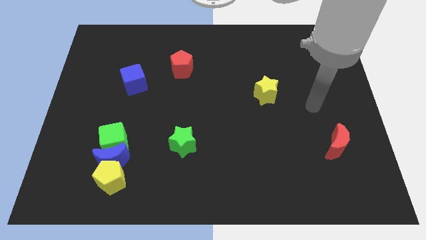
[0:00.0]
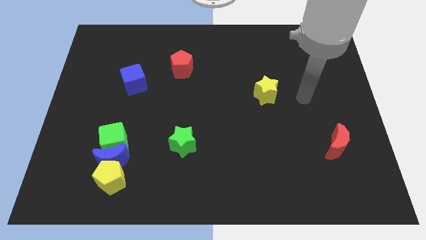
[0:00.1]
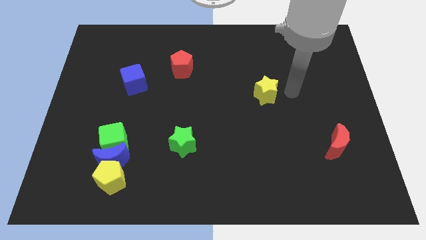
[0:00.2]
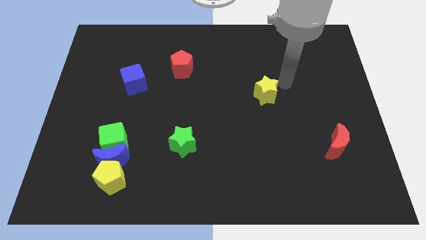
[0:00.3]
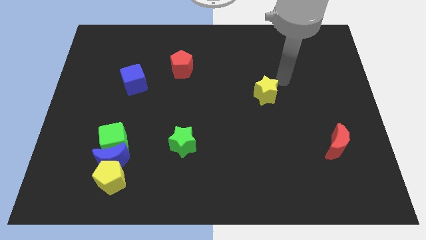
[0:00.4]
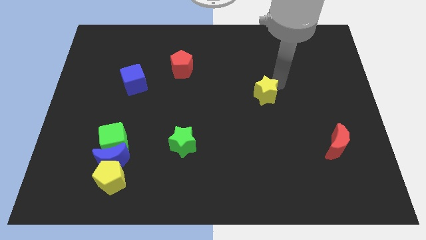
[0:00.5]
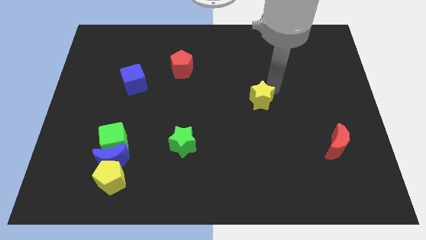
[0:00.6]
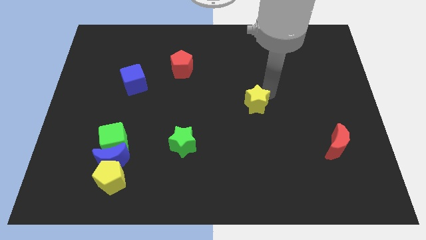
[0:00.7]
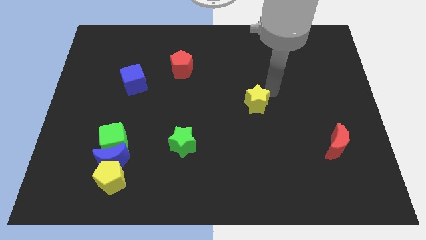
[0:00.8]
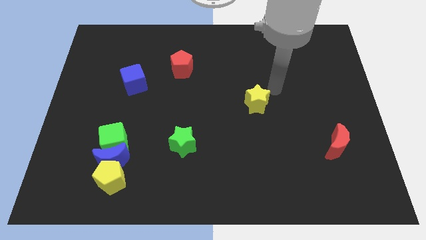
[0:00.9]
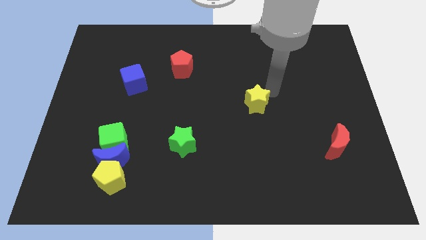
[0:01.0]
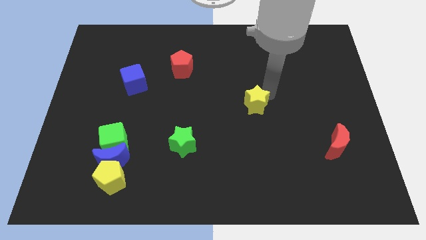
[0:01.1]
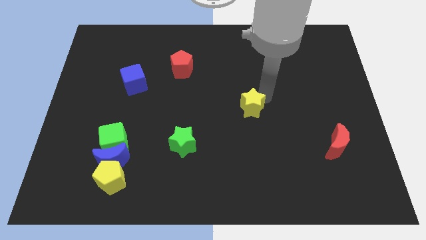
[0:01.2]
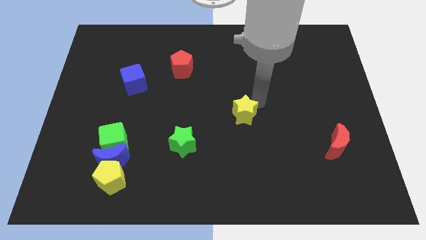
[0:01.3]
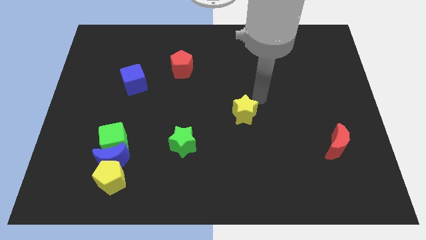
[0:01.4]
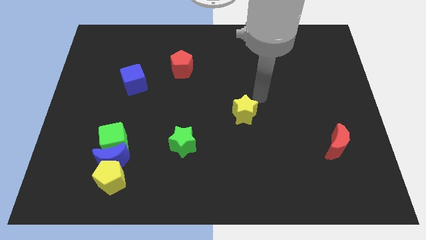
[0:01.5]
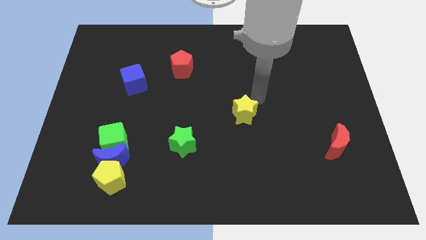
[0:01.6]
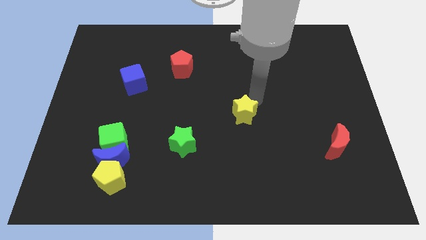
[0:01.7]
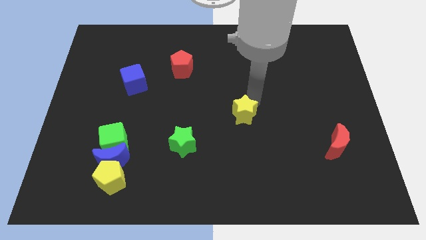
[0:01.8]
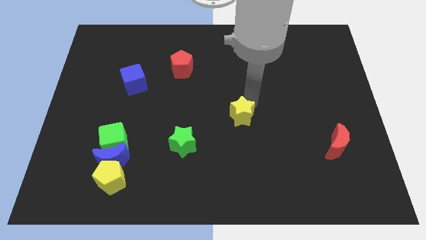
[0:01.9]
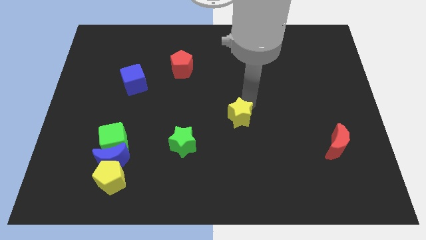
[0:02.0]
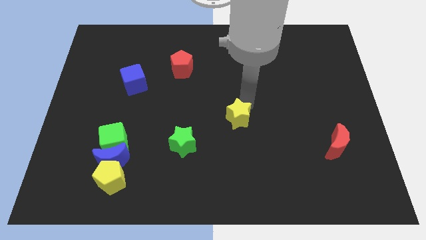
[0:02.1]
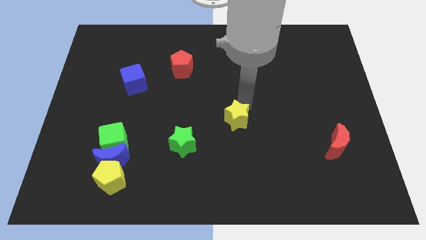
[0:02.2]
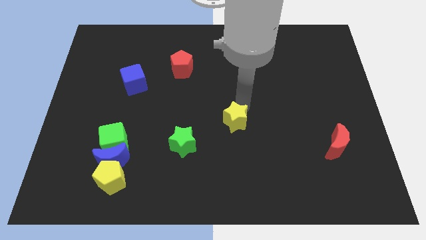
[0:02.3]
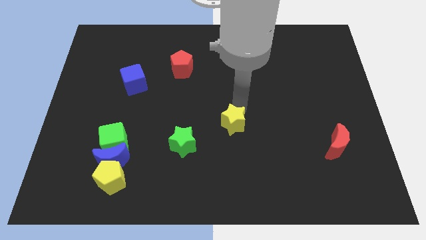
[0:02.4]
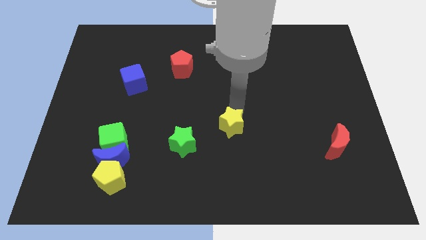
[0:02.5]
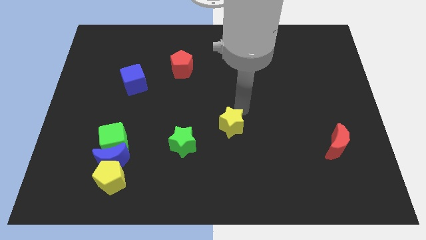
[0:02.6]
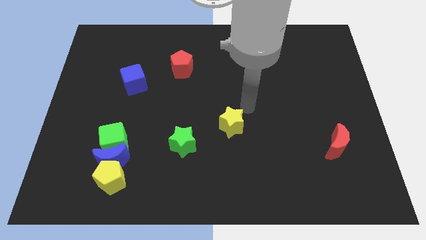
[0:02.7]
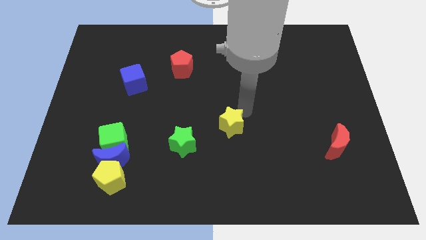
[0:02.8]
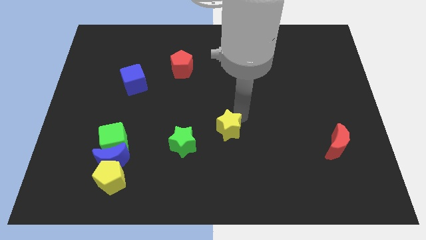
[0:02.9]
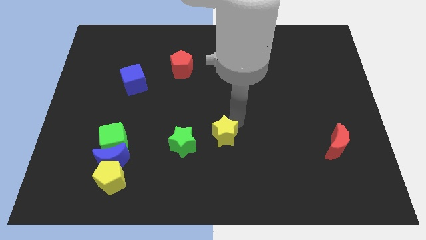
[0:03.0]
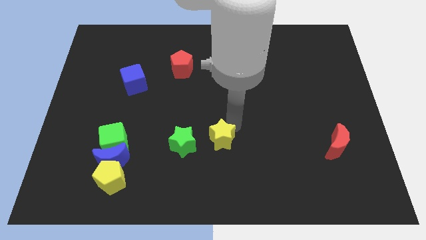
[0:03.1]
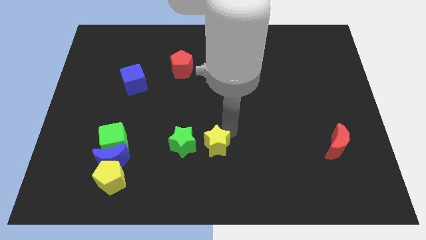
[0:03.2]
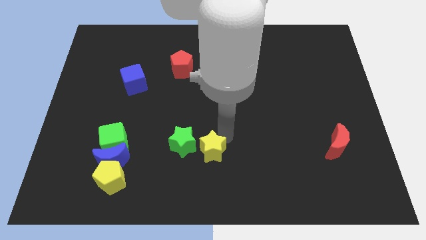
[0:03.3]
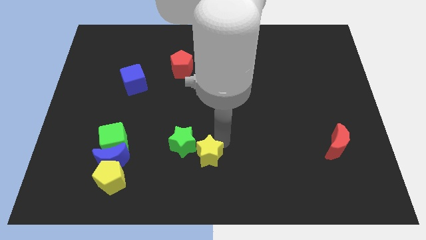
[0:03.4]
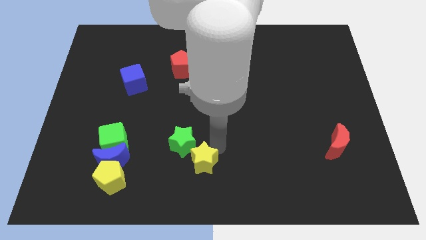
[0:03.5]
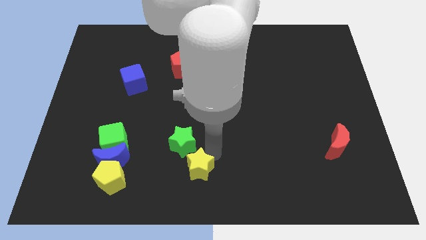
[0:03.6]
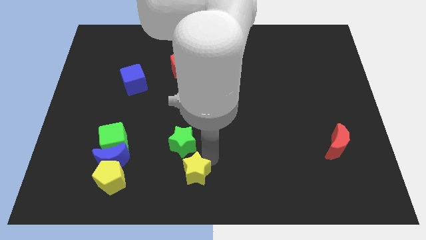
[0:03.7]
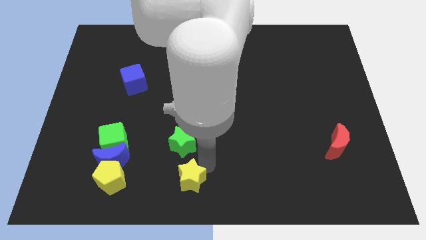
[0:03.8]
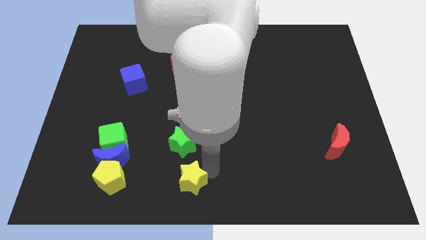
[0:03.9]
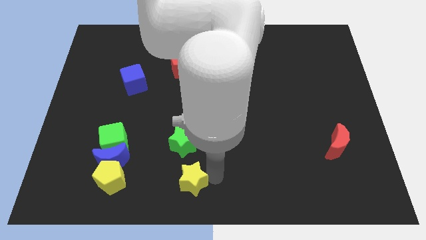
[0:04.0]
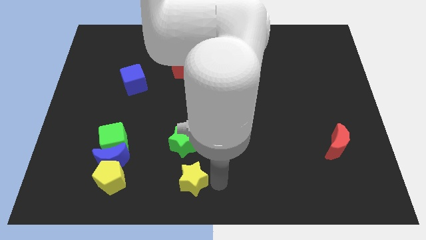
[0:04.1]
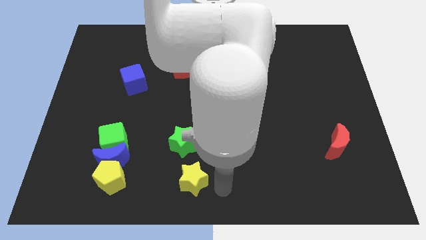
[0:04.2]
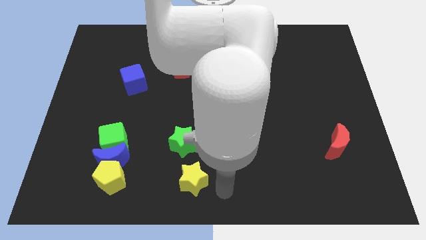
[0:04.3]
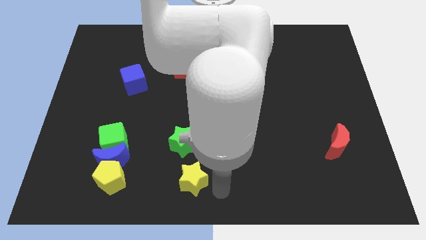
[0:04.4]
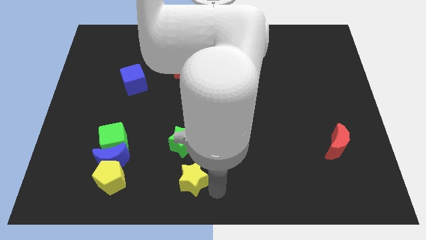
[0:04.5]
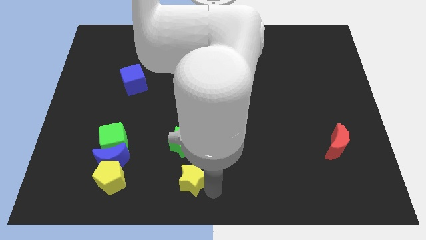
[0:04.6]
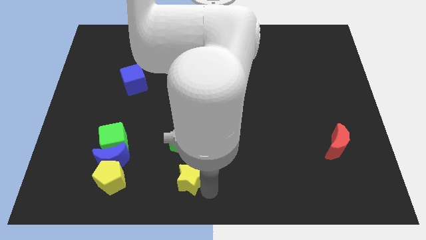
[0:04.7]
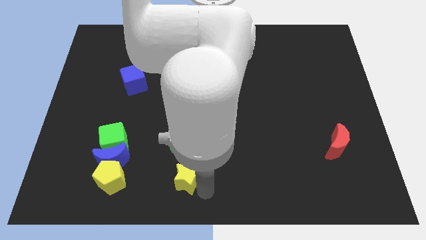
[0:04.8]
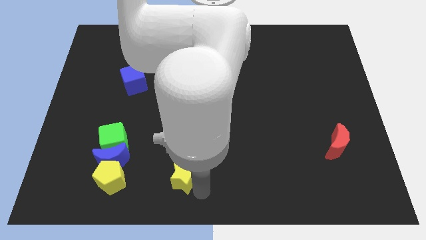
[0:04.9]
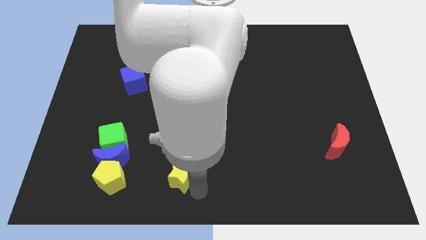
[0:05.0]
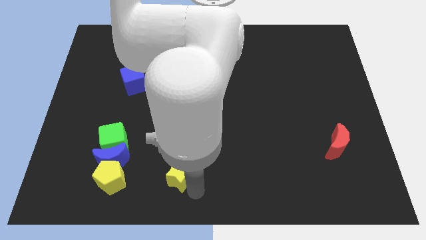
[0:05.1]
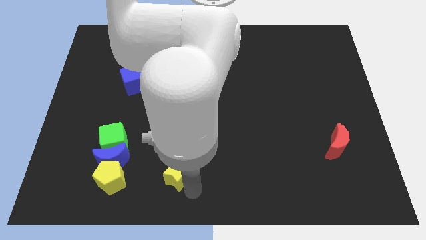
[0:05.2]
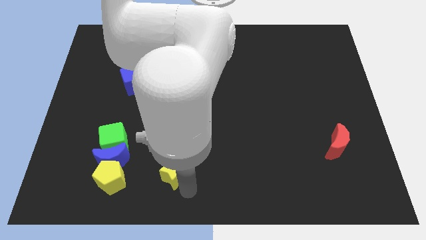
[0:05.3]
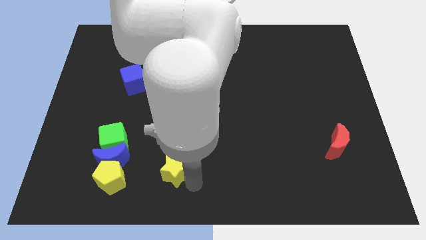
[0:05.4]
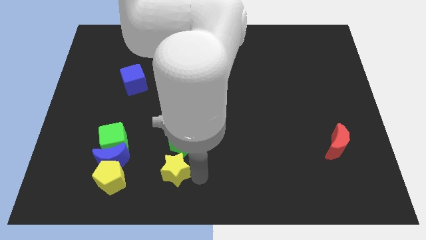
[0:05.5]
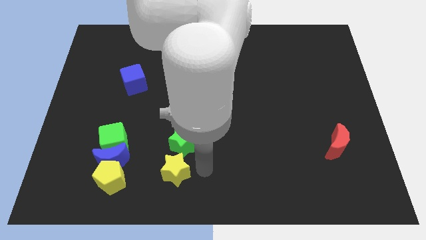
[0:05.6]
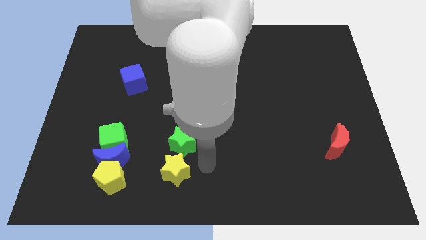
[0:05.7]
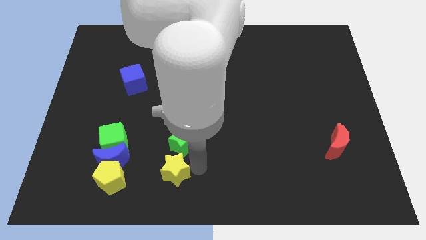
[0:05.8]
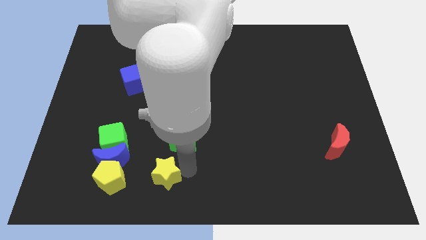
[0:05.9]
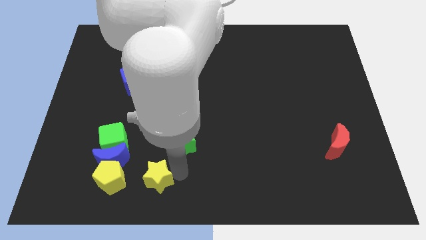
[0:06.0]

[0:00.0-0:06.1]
put the yellow star to the bottom right of the blue moon

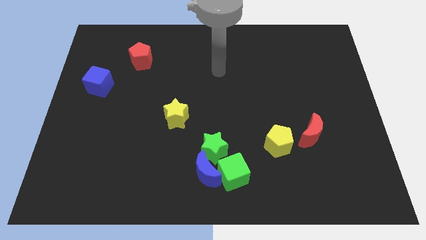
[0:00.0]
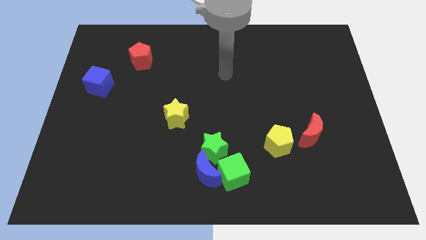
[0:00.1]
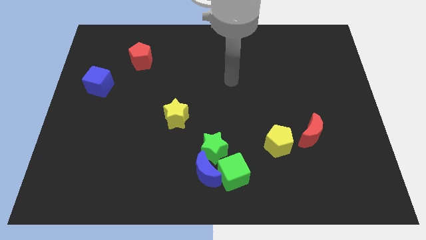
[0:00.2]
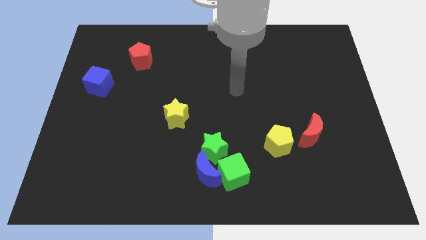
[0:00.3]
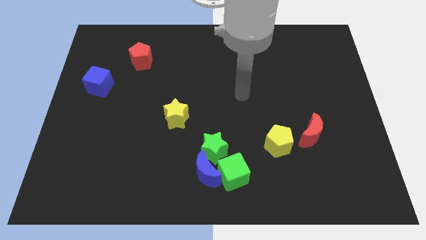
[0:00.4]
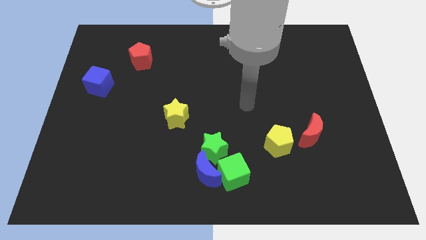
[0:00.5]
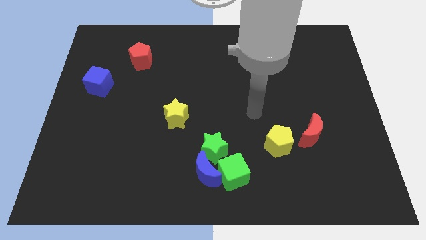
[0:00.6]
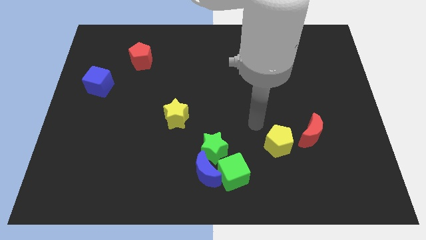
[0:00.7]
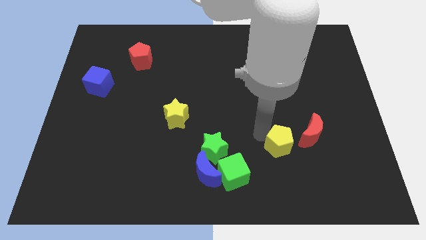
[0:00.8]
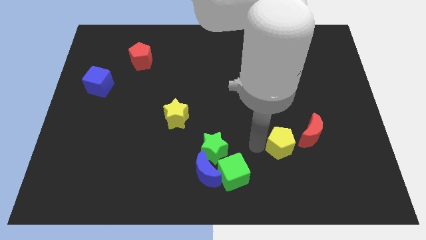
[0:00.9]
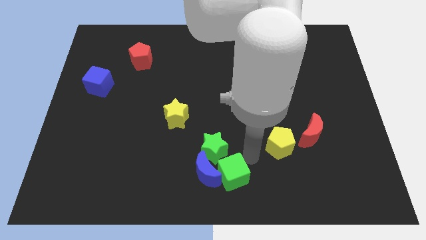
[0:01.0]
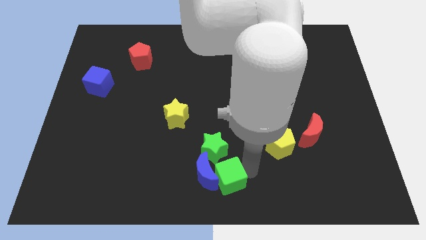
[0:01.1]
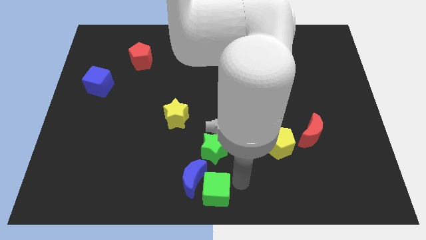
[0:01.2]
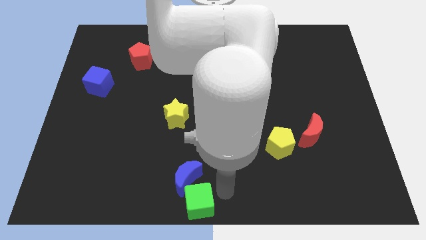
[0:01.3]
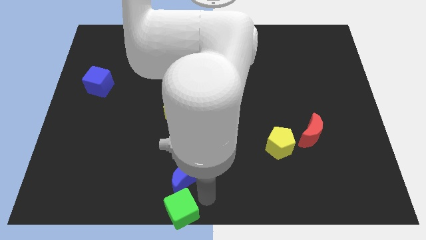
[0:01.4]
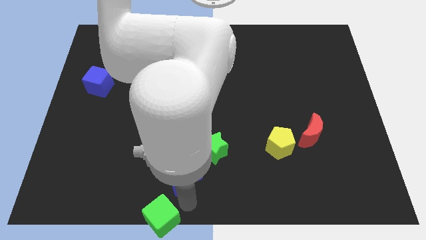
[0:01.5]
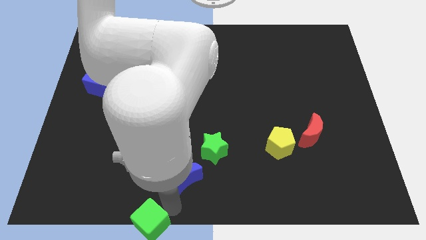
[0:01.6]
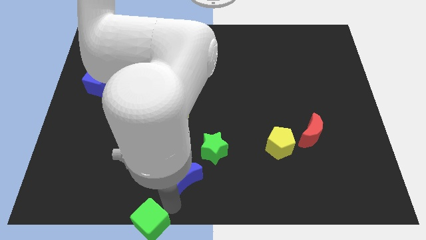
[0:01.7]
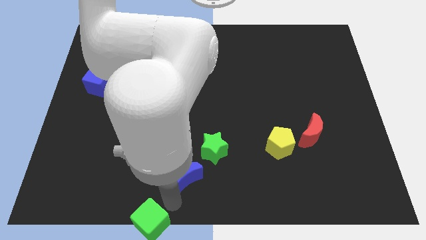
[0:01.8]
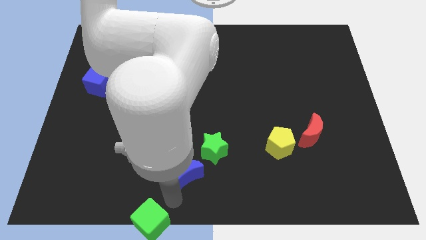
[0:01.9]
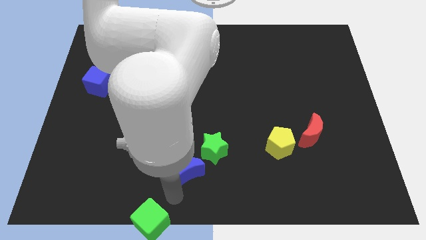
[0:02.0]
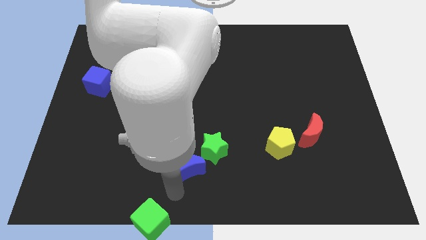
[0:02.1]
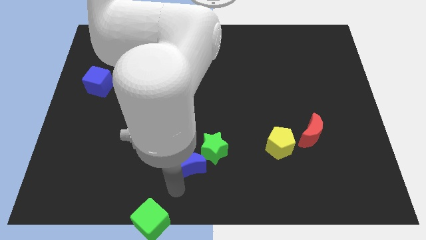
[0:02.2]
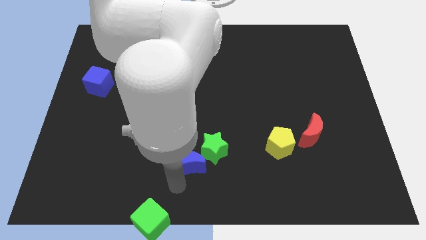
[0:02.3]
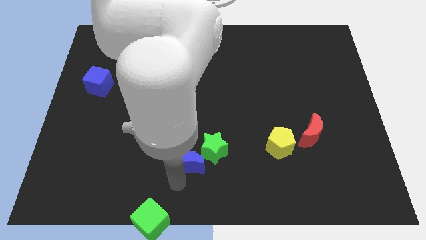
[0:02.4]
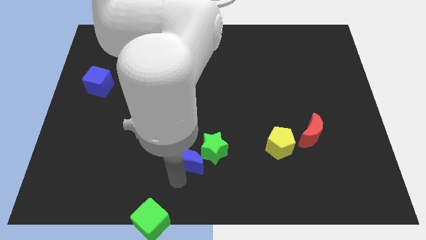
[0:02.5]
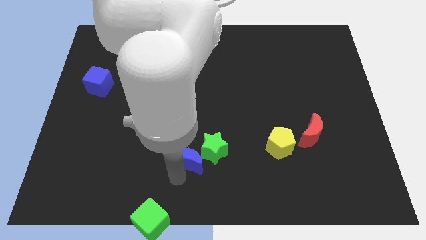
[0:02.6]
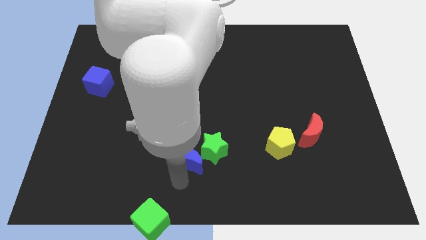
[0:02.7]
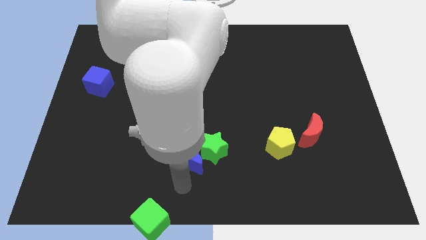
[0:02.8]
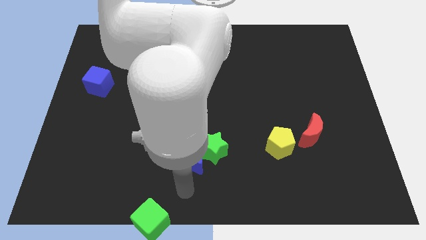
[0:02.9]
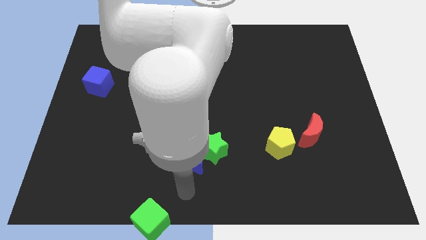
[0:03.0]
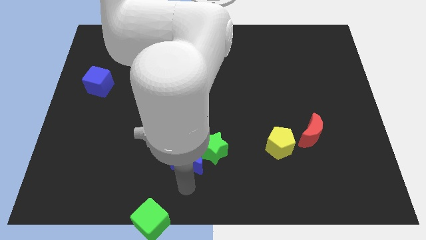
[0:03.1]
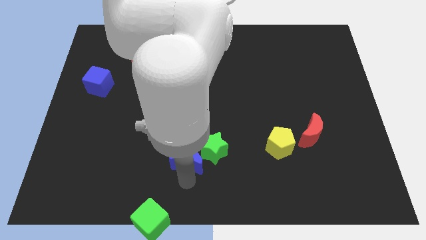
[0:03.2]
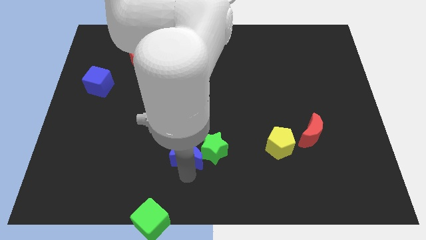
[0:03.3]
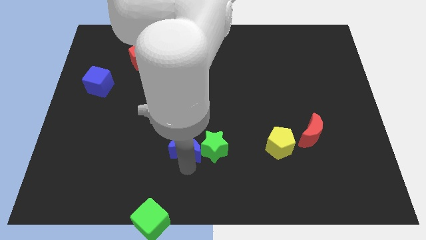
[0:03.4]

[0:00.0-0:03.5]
put the blue moon to the top left of the green star
